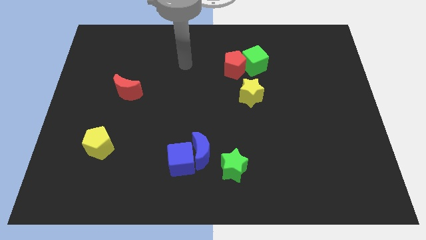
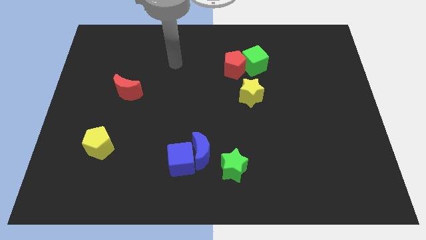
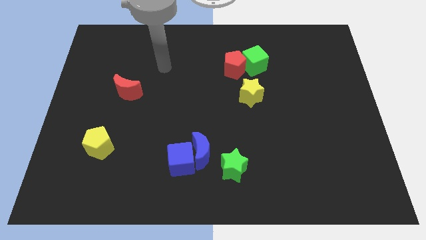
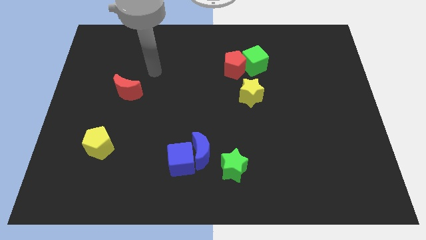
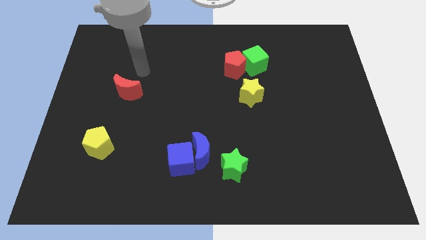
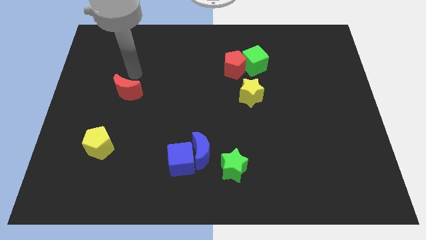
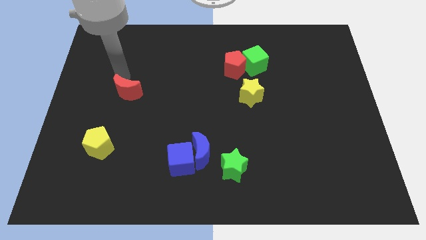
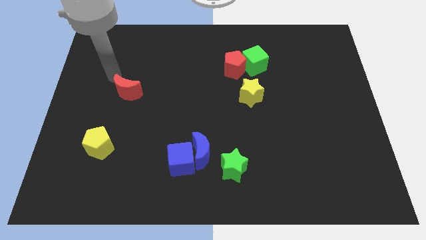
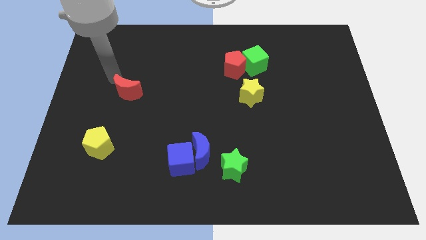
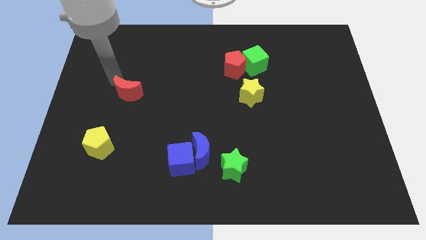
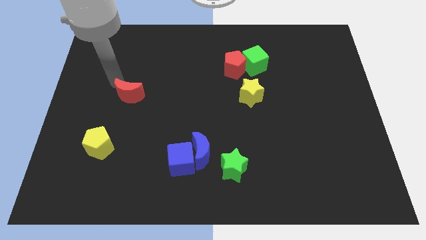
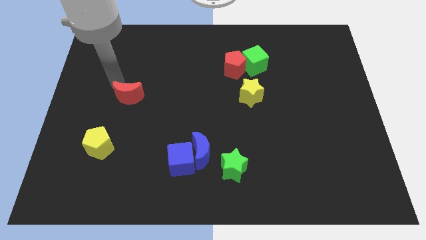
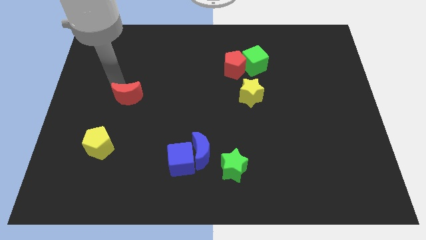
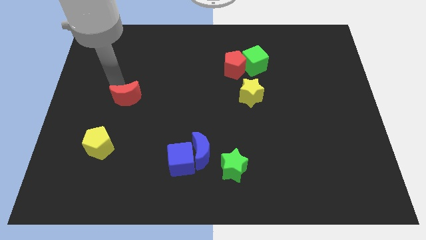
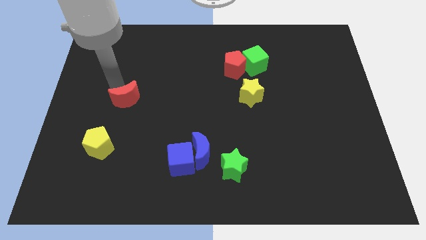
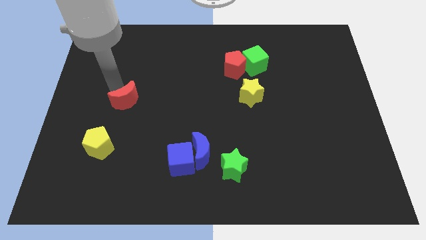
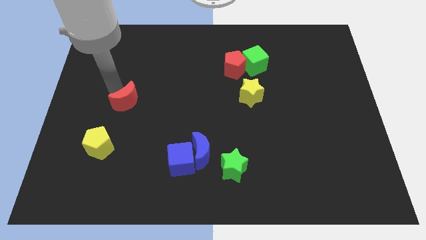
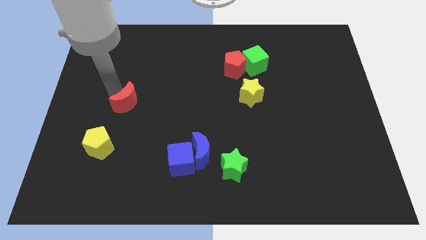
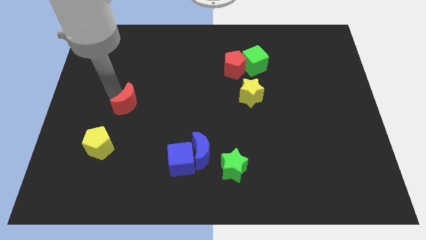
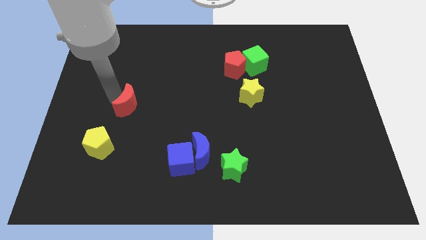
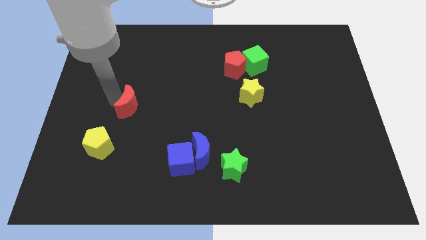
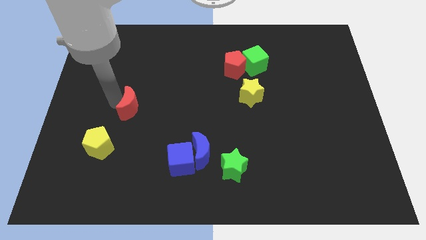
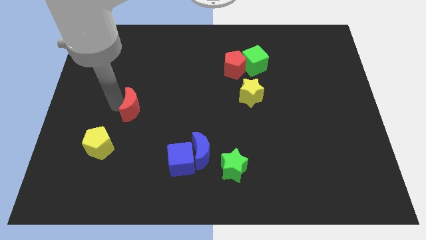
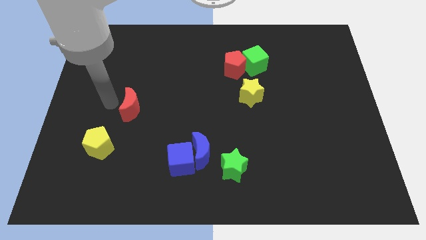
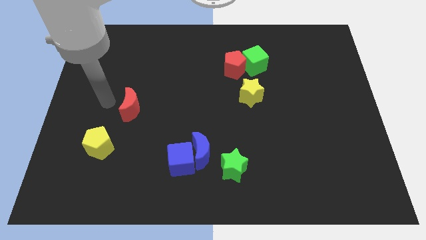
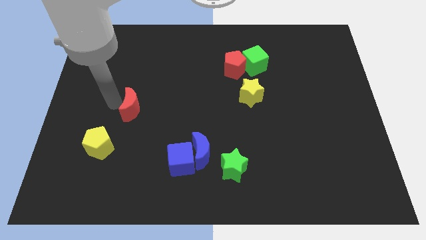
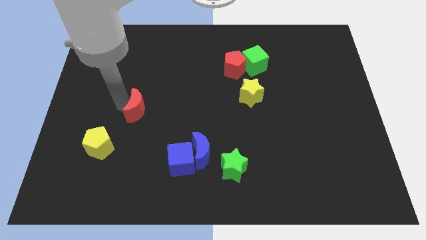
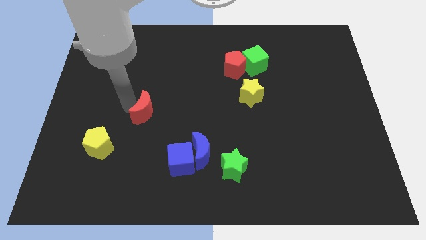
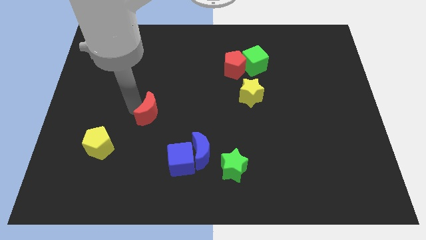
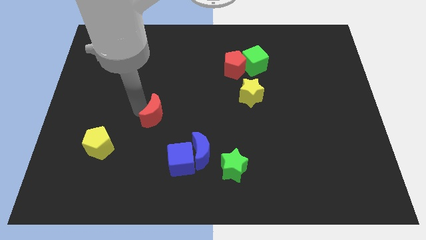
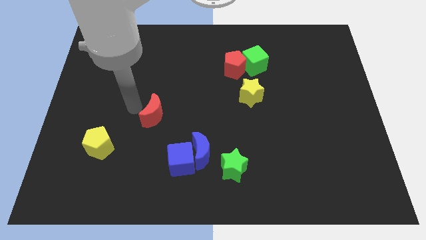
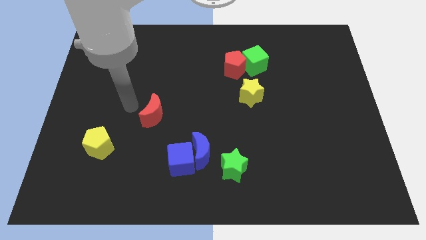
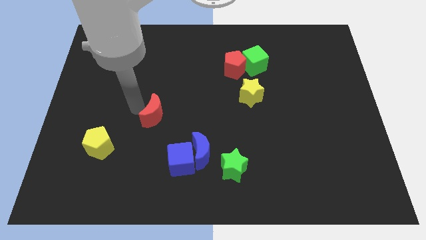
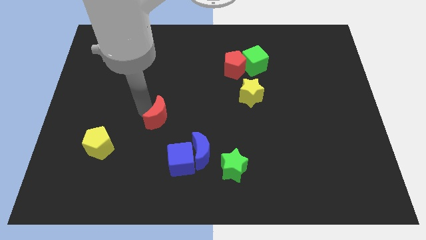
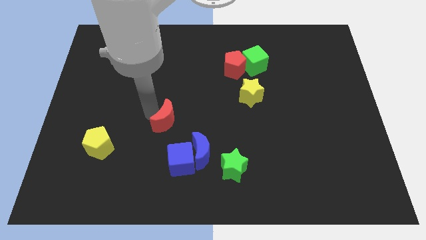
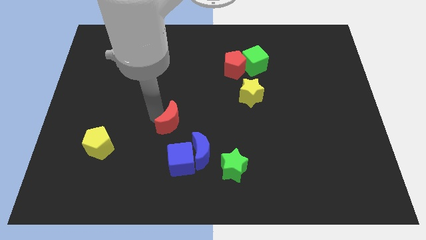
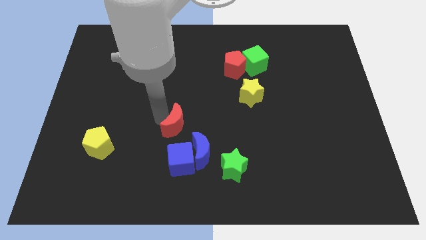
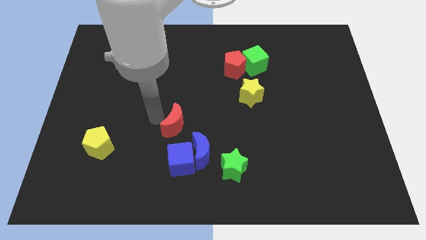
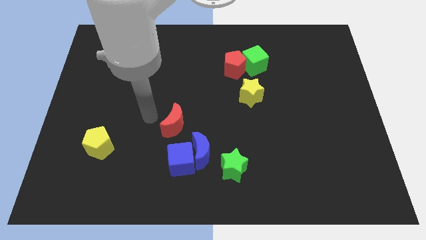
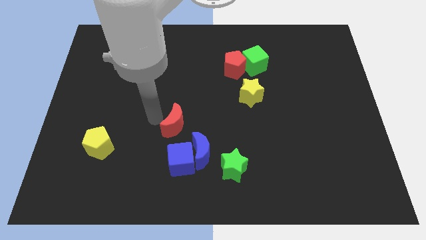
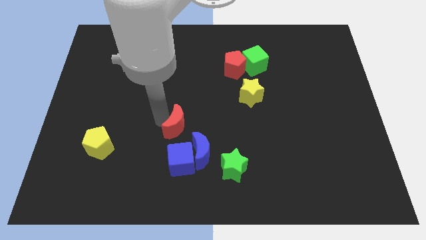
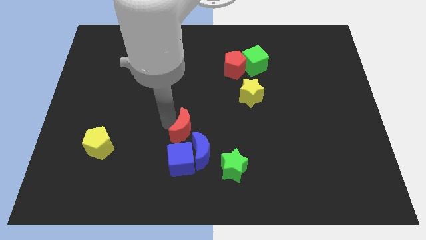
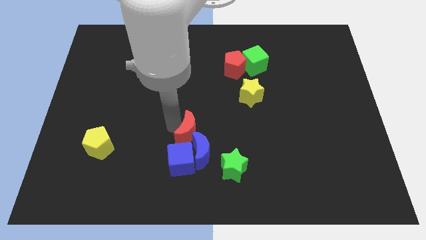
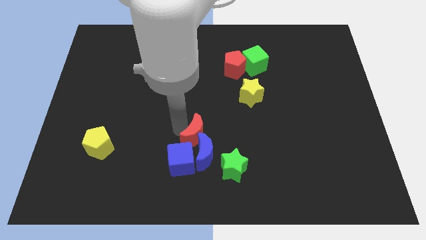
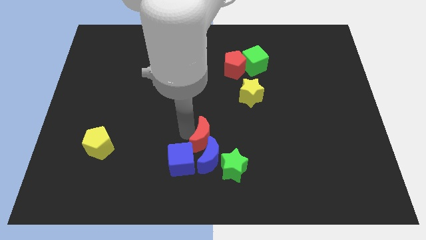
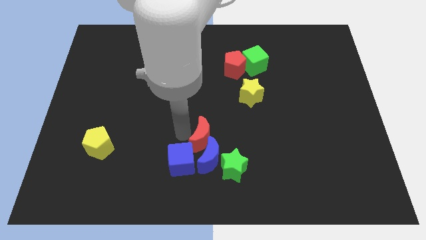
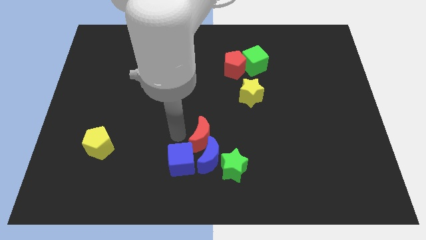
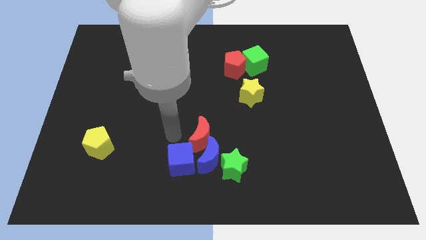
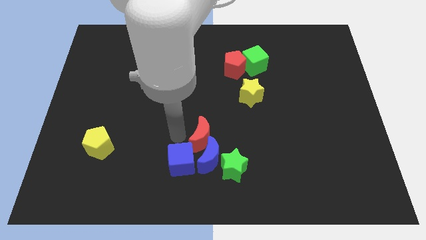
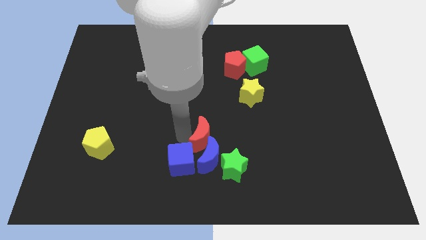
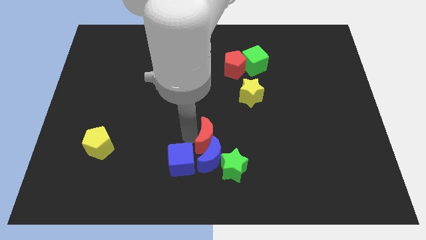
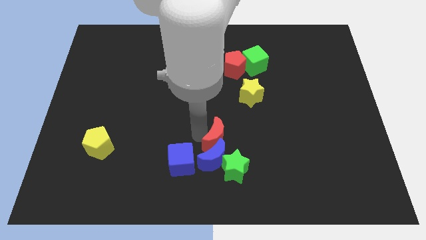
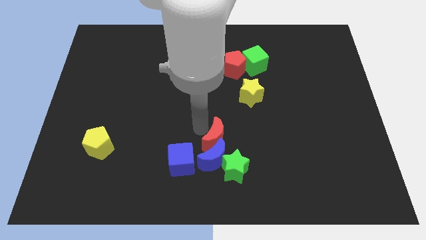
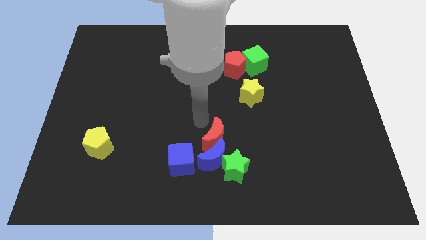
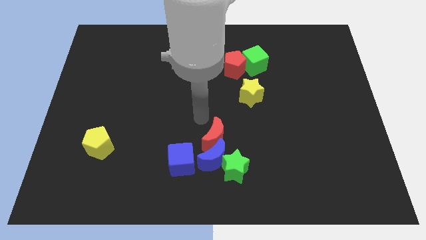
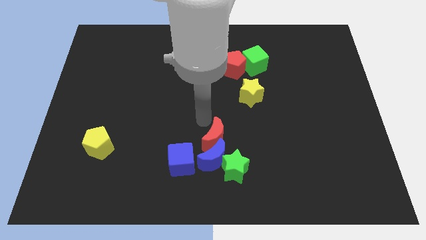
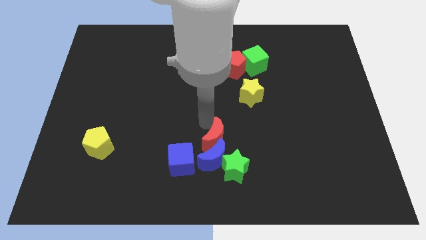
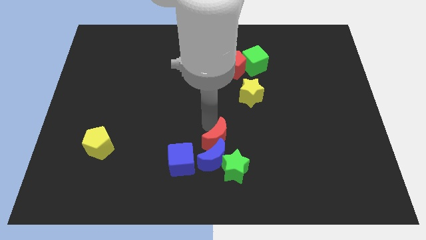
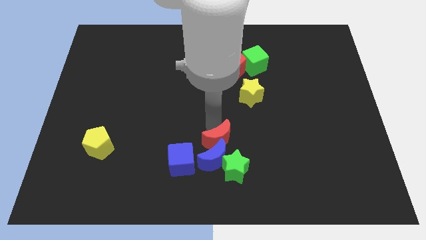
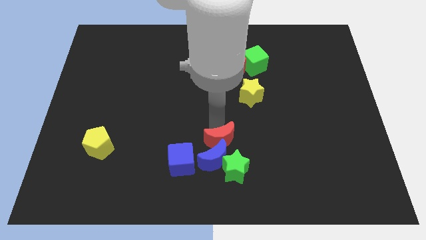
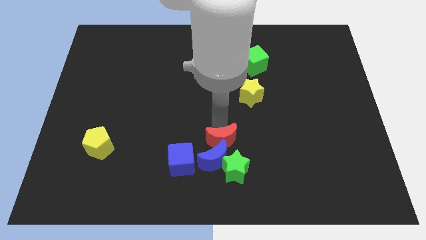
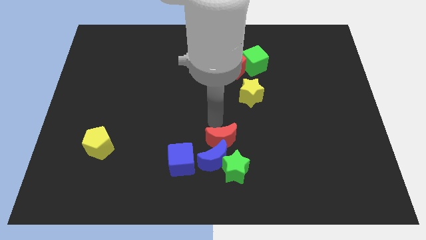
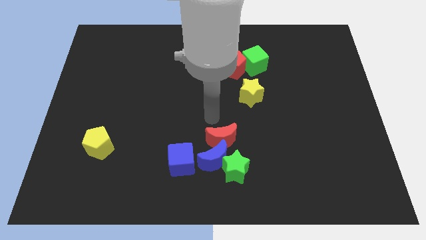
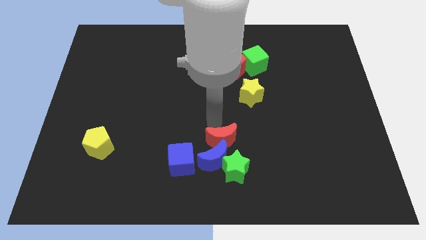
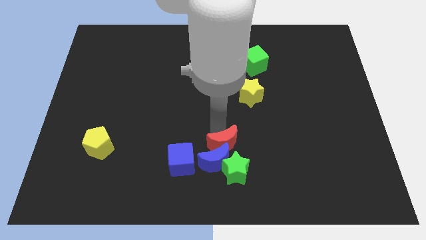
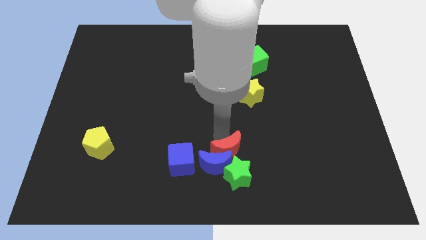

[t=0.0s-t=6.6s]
push the red moon next to the green star
